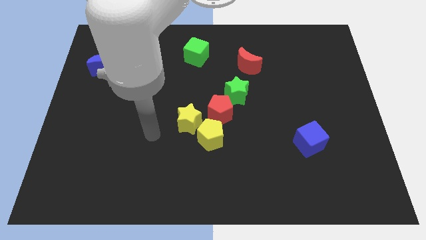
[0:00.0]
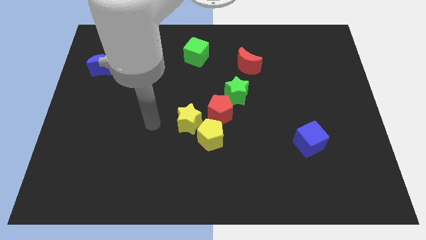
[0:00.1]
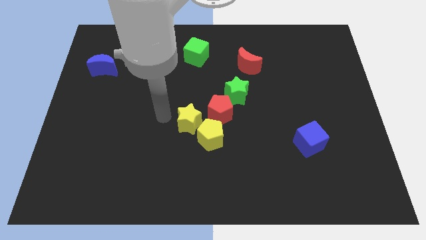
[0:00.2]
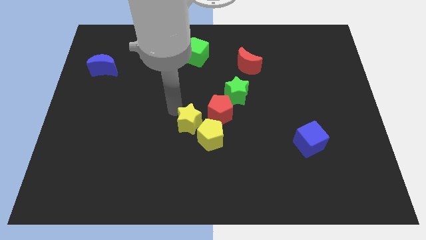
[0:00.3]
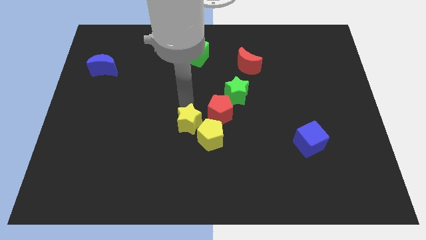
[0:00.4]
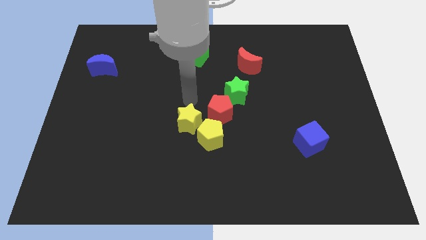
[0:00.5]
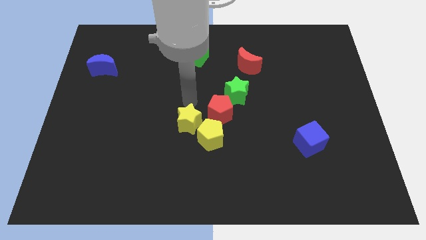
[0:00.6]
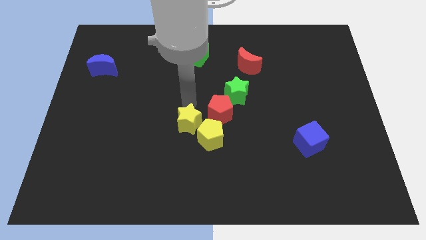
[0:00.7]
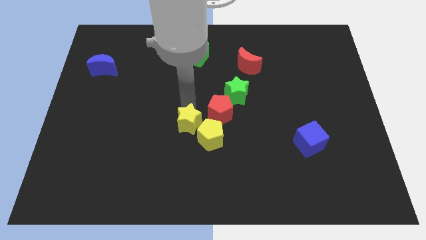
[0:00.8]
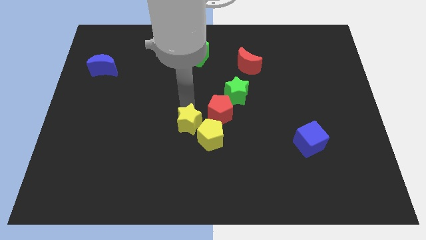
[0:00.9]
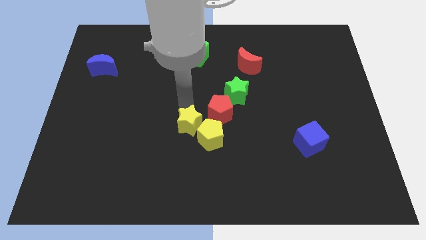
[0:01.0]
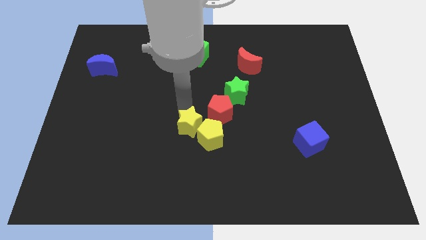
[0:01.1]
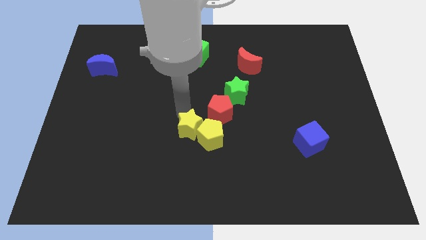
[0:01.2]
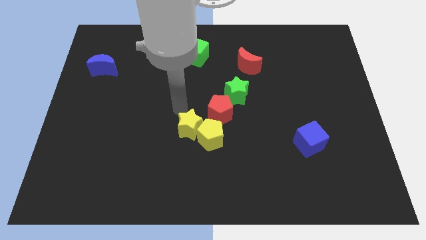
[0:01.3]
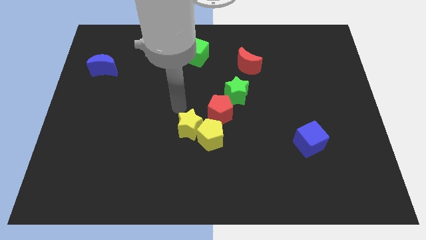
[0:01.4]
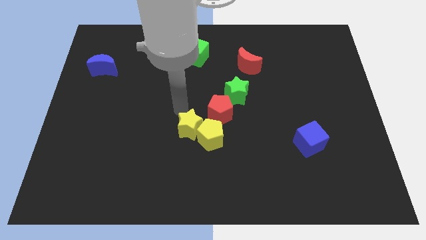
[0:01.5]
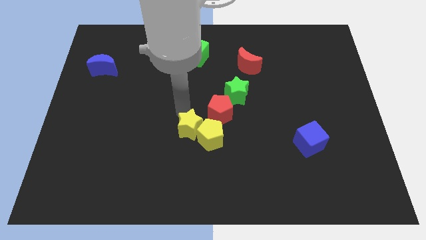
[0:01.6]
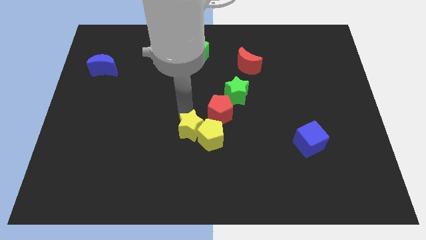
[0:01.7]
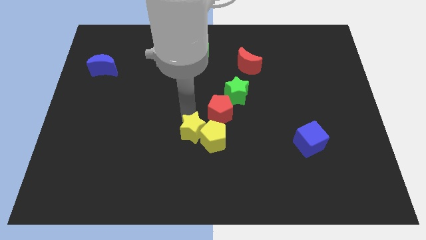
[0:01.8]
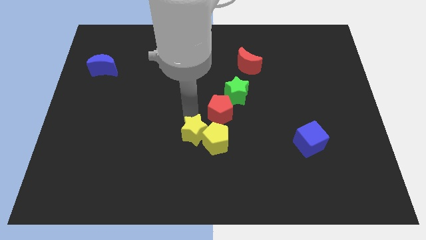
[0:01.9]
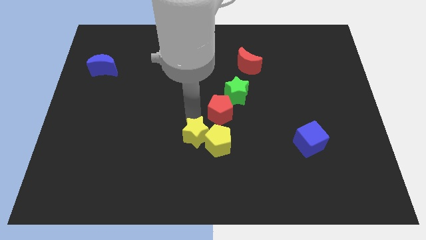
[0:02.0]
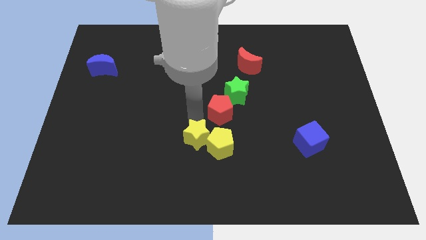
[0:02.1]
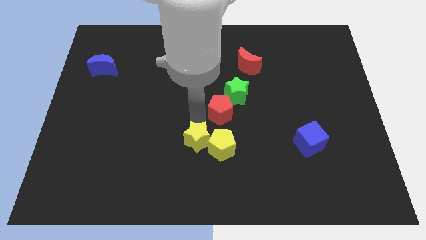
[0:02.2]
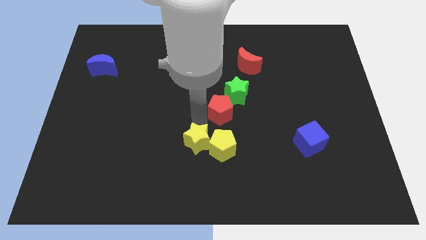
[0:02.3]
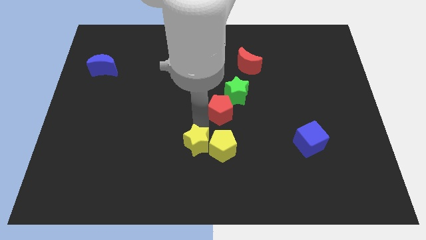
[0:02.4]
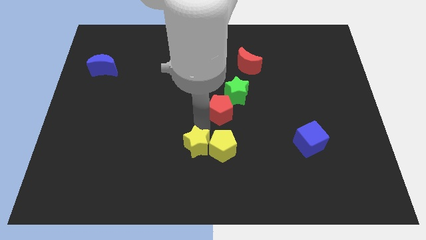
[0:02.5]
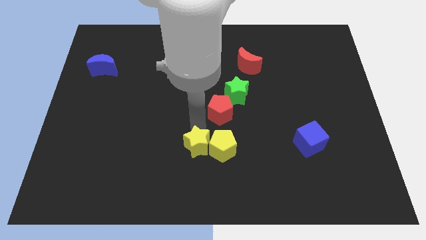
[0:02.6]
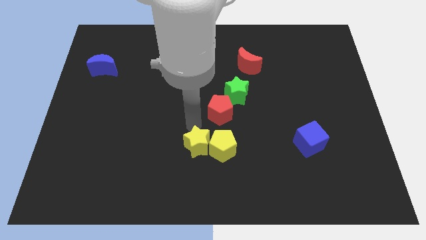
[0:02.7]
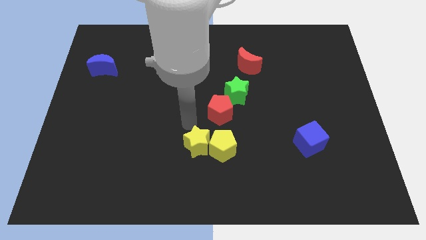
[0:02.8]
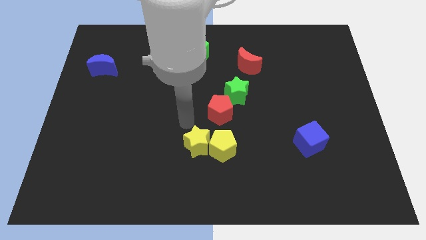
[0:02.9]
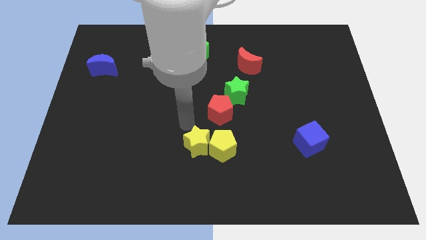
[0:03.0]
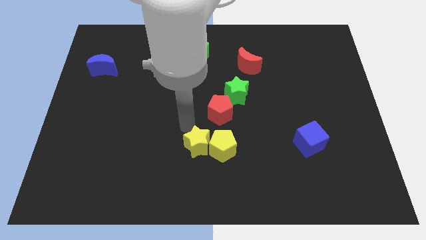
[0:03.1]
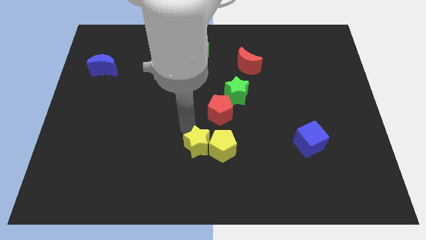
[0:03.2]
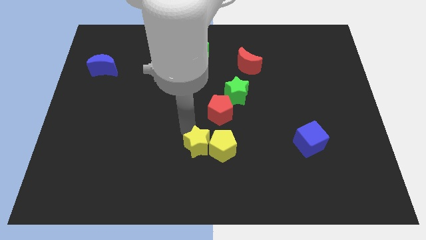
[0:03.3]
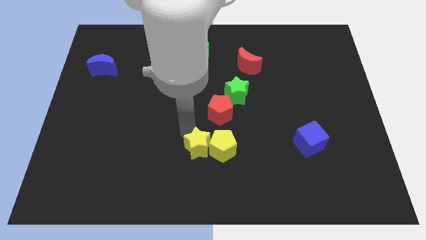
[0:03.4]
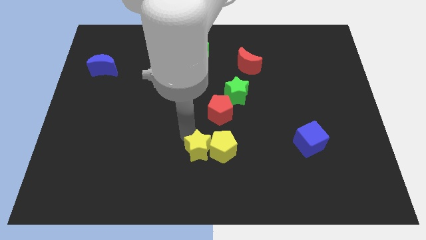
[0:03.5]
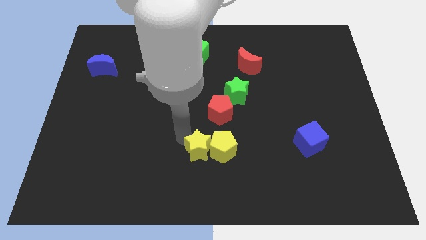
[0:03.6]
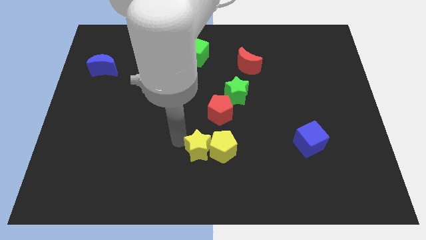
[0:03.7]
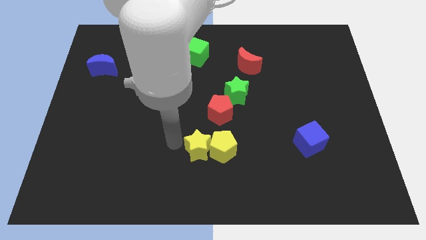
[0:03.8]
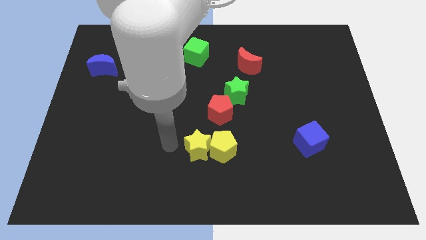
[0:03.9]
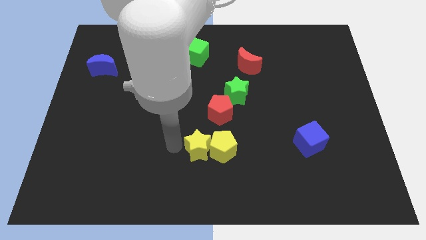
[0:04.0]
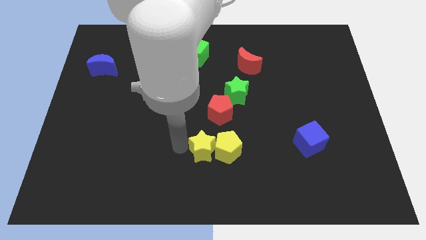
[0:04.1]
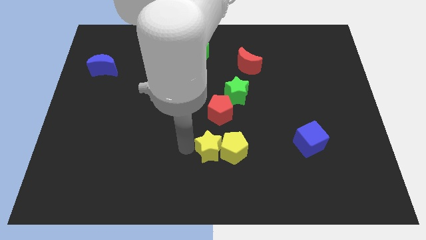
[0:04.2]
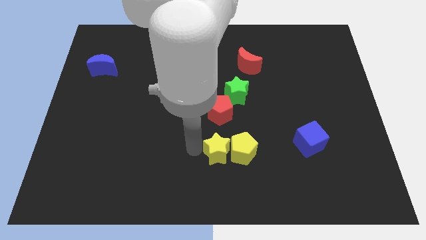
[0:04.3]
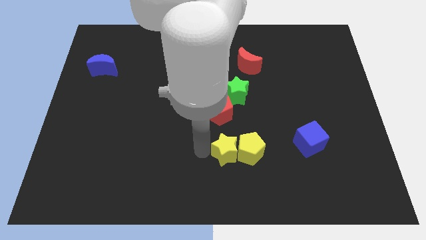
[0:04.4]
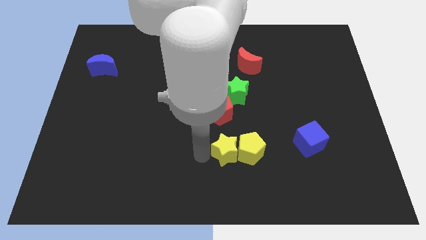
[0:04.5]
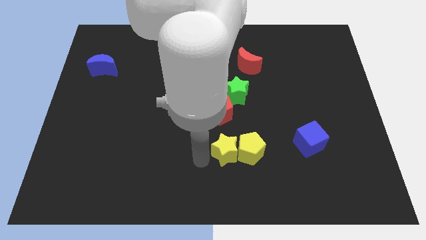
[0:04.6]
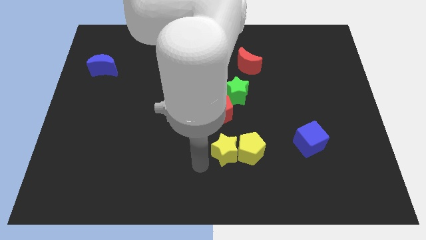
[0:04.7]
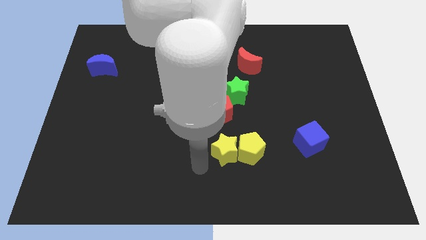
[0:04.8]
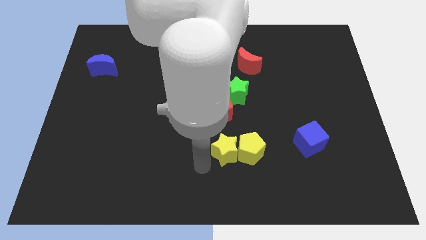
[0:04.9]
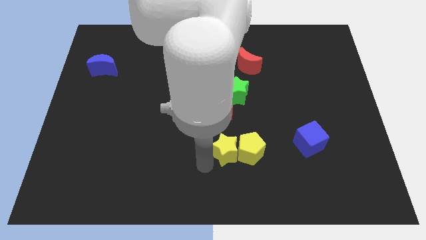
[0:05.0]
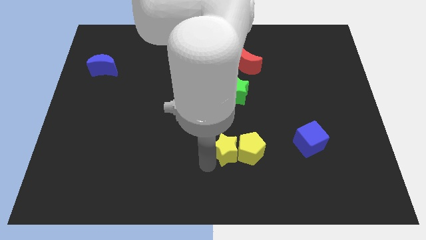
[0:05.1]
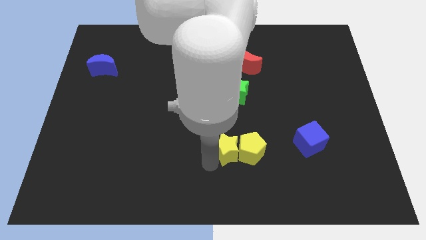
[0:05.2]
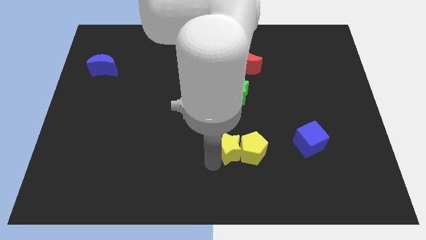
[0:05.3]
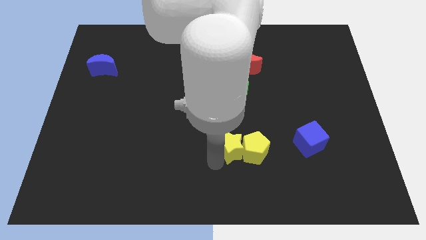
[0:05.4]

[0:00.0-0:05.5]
slide the yellow star right a bit

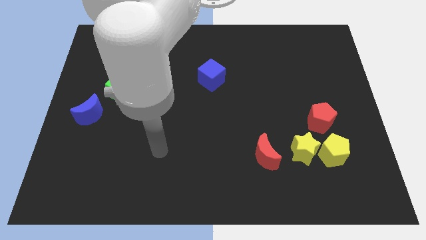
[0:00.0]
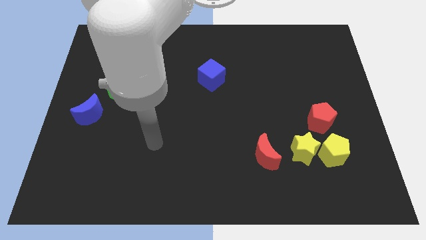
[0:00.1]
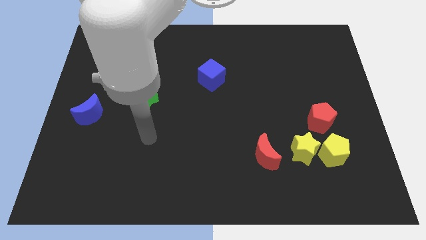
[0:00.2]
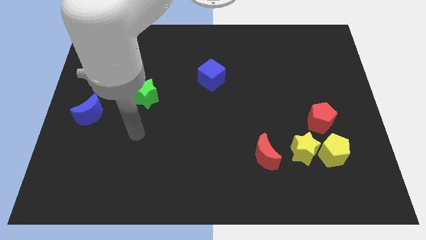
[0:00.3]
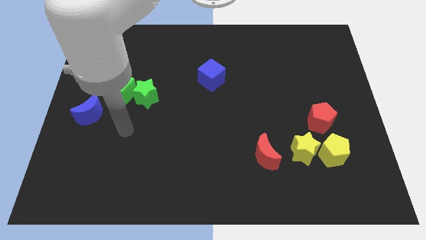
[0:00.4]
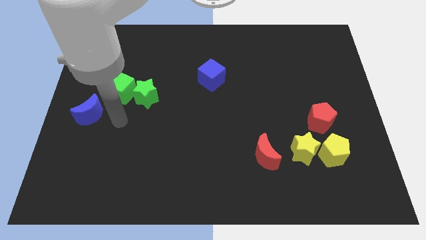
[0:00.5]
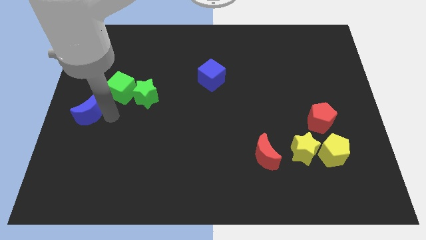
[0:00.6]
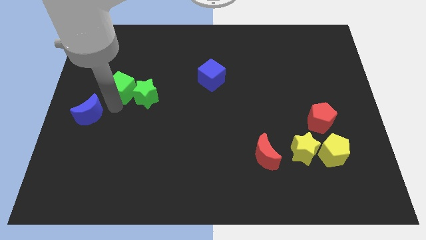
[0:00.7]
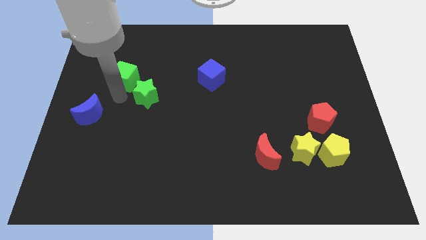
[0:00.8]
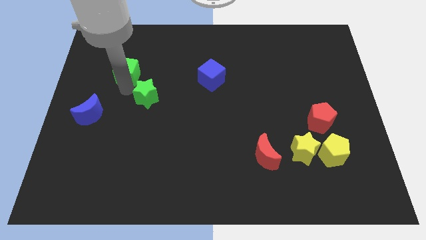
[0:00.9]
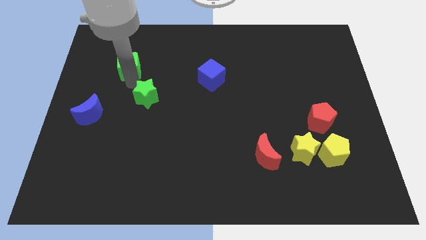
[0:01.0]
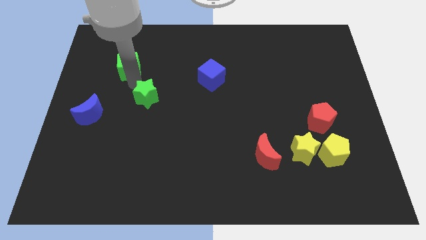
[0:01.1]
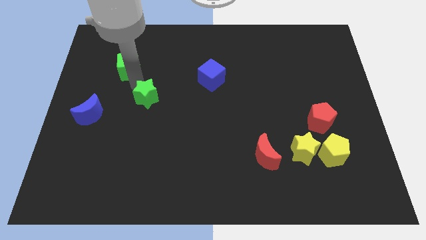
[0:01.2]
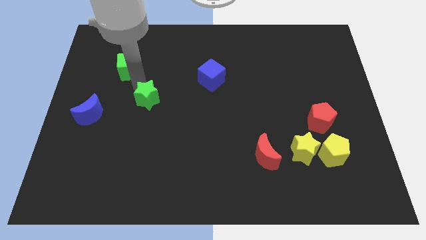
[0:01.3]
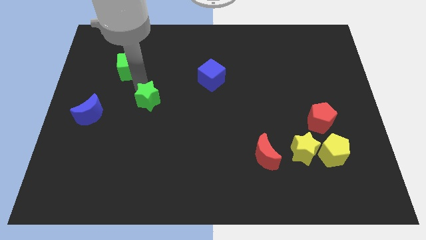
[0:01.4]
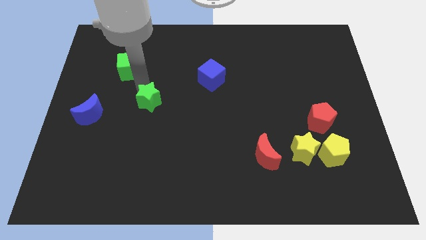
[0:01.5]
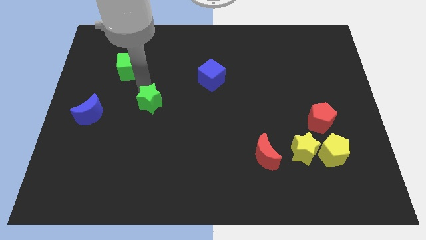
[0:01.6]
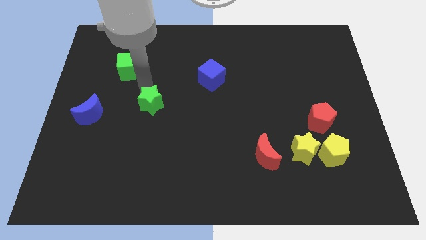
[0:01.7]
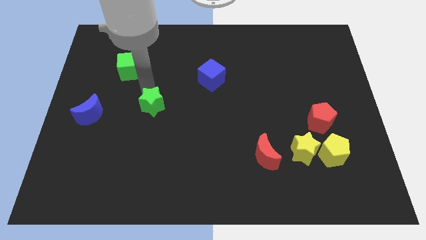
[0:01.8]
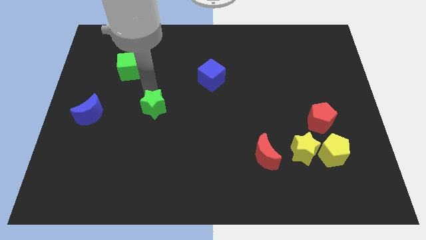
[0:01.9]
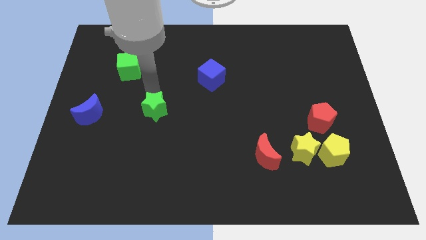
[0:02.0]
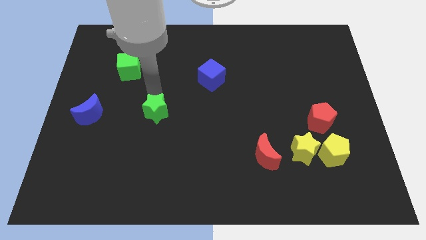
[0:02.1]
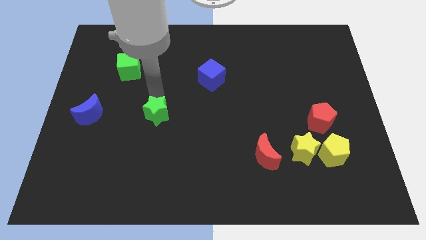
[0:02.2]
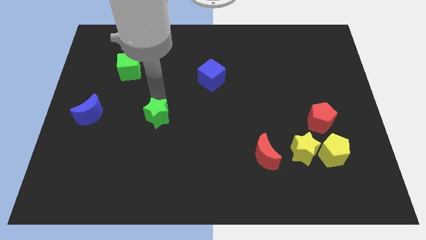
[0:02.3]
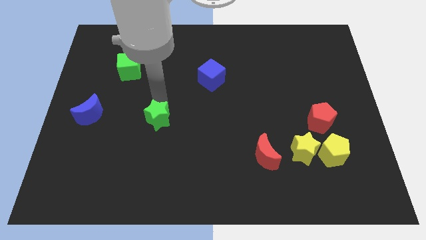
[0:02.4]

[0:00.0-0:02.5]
push the green star downwards and then to the right a little bit

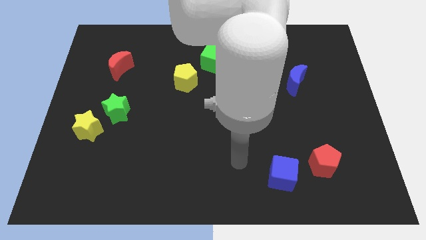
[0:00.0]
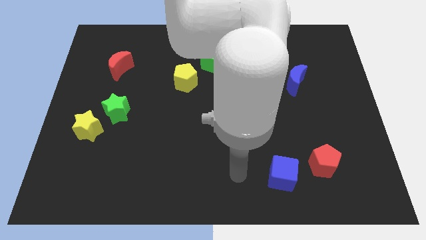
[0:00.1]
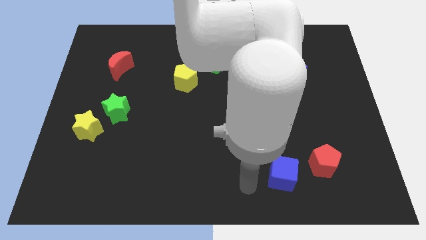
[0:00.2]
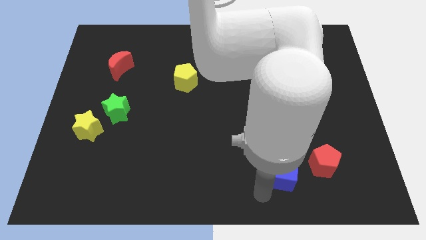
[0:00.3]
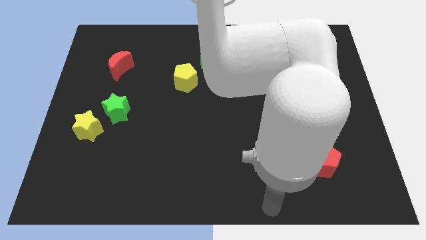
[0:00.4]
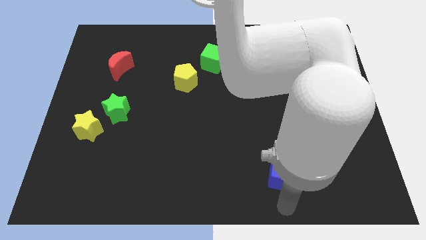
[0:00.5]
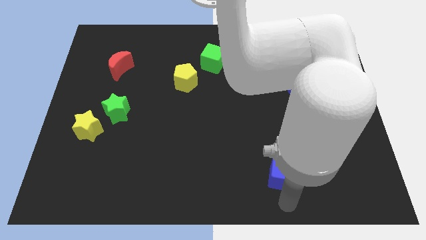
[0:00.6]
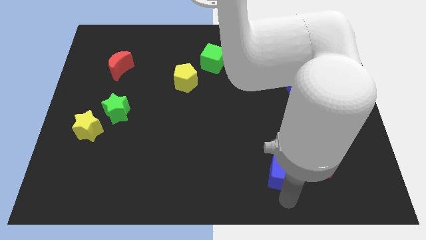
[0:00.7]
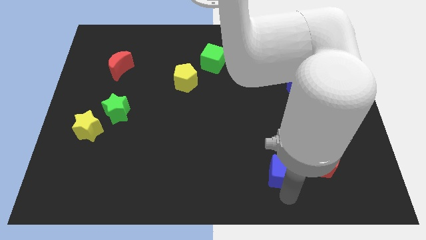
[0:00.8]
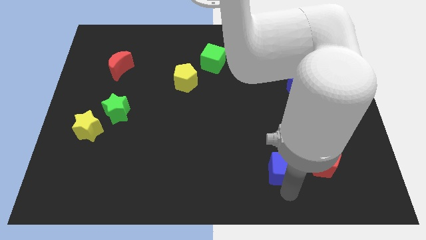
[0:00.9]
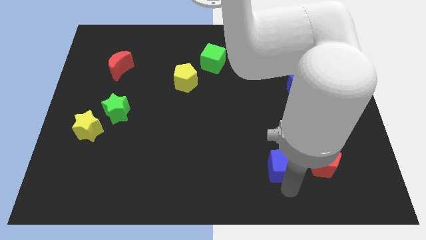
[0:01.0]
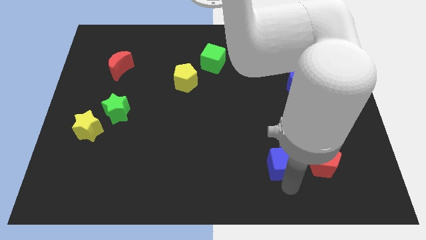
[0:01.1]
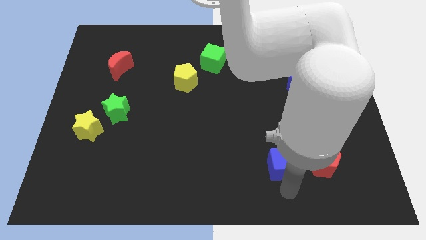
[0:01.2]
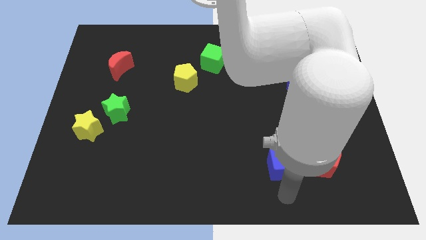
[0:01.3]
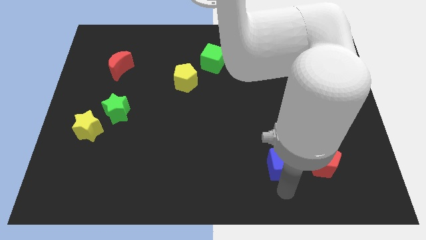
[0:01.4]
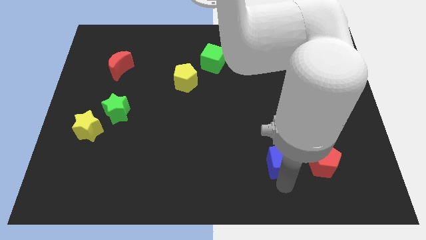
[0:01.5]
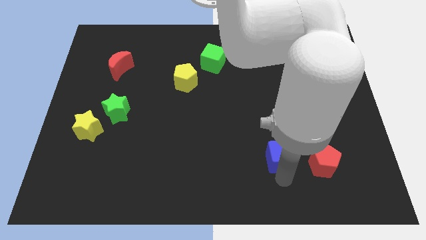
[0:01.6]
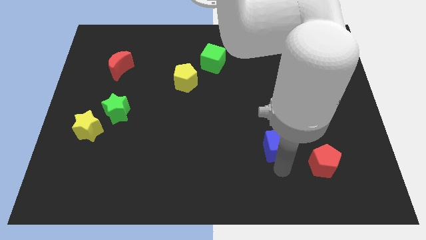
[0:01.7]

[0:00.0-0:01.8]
slightly slide the blue cube up
